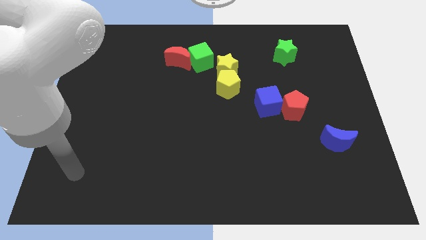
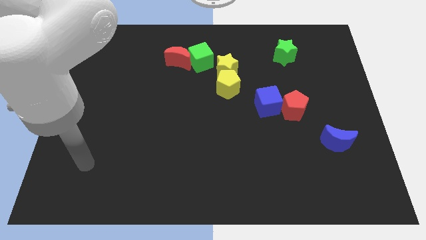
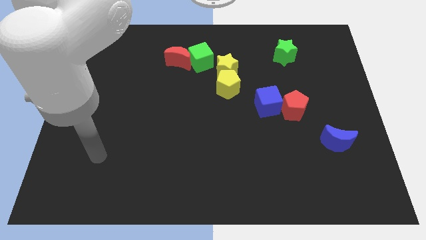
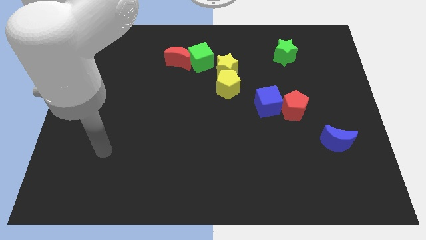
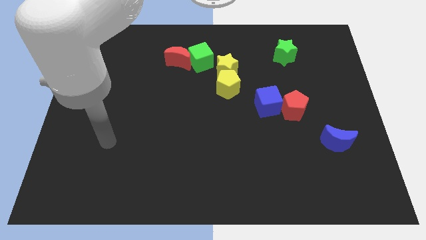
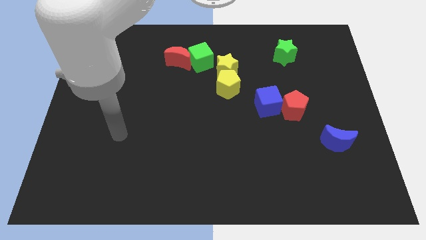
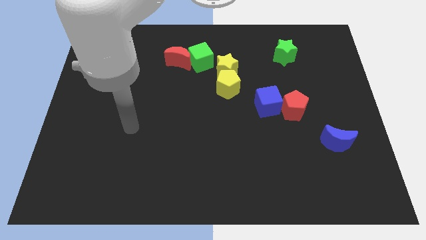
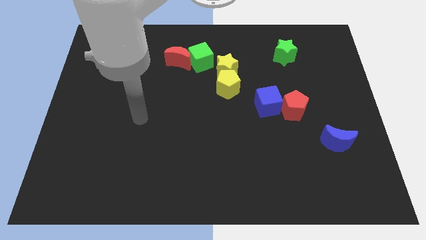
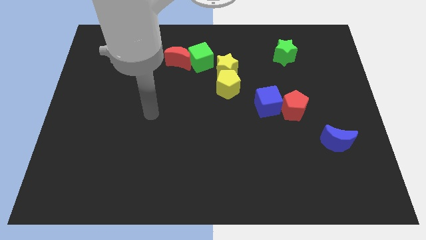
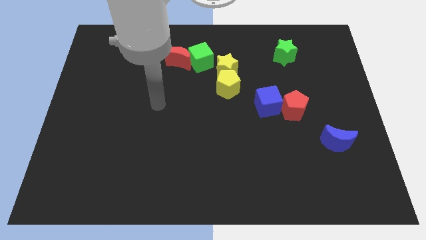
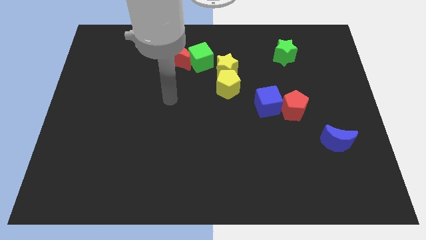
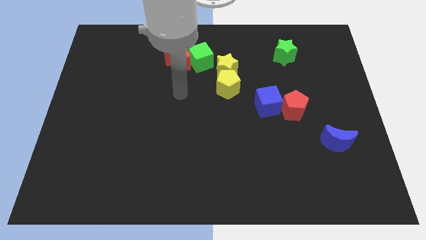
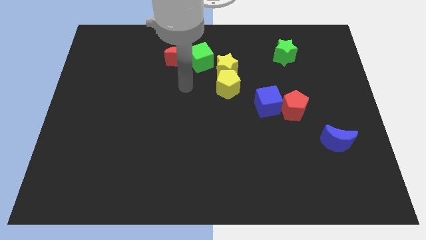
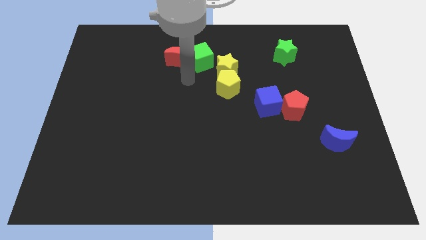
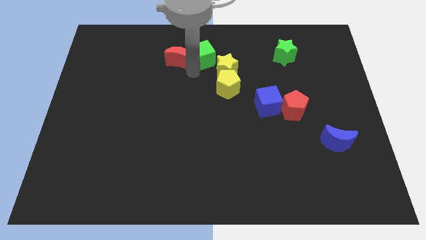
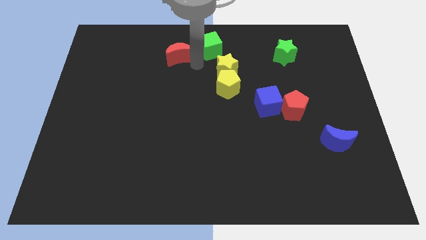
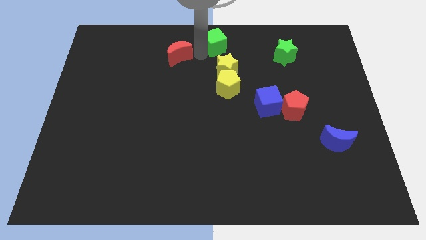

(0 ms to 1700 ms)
separate the red moon from the green cube

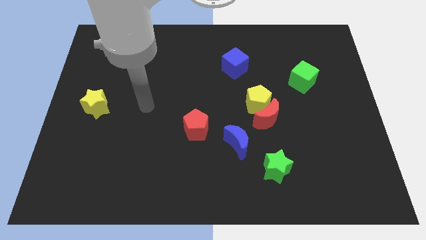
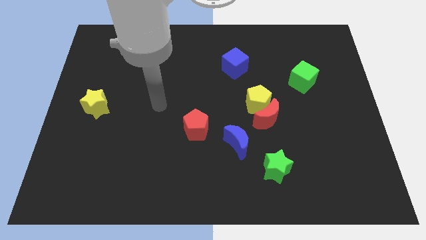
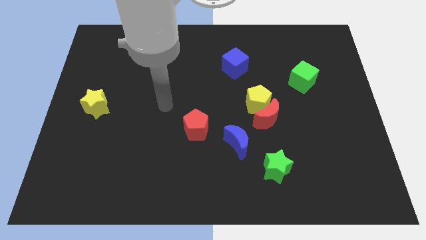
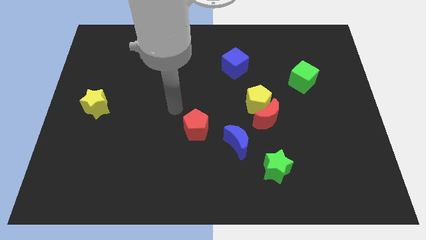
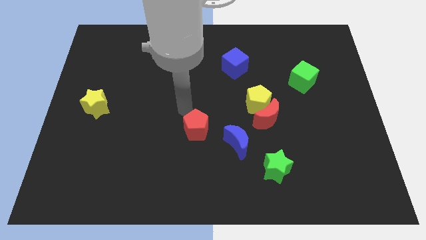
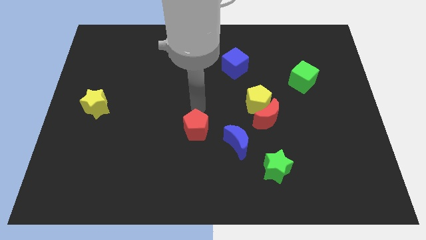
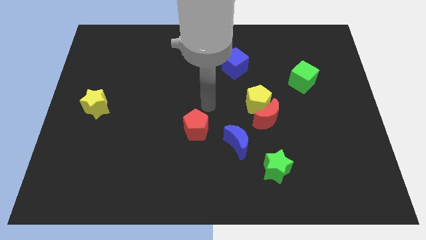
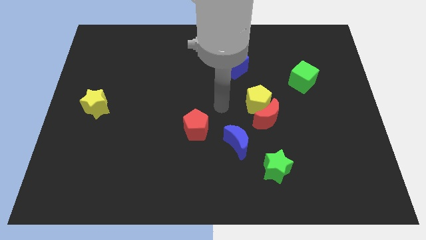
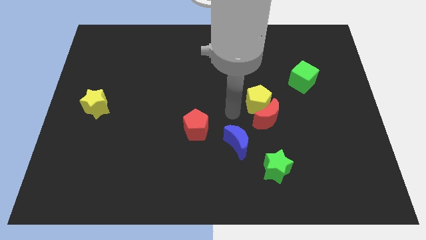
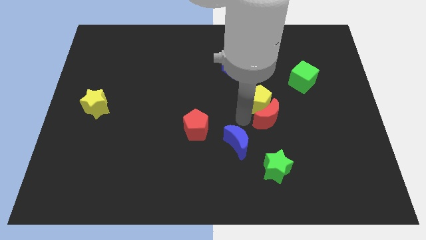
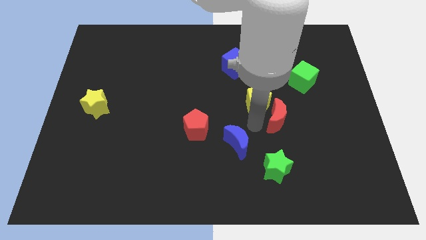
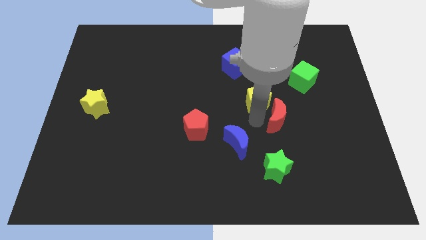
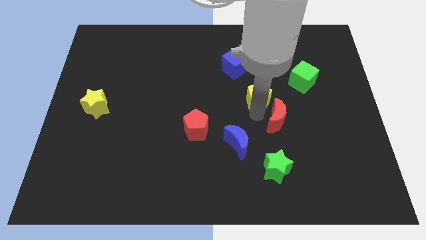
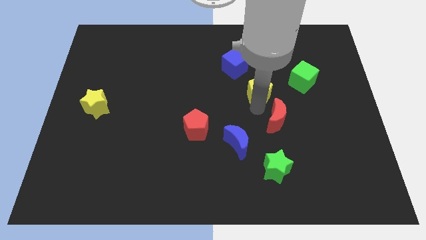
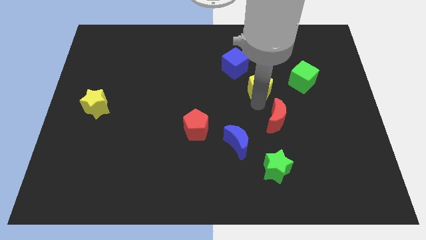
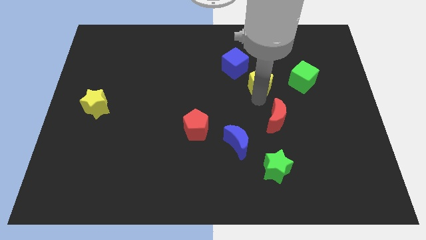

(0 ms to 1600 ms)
move the yellow pentagon away from the red moon

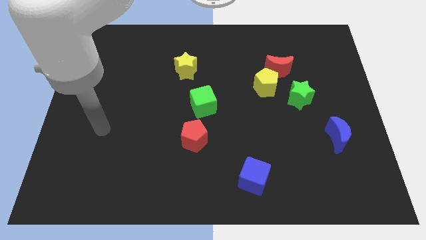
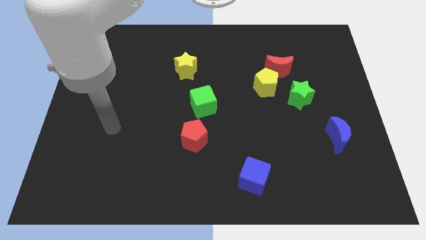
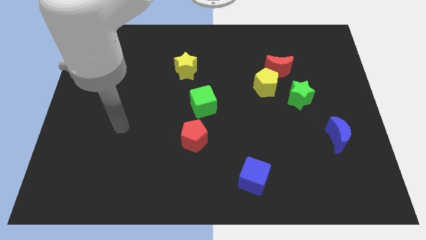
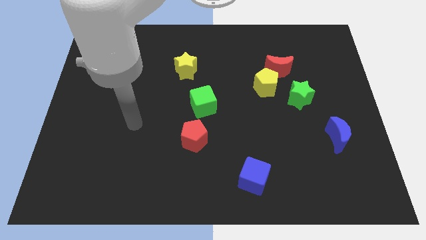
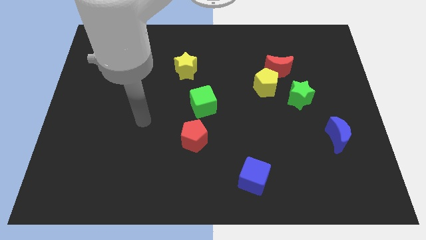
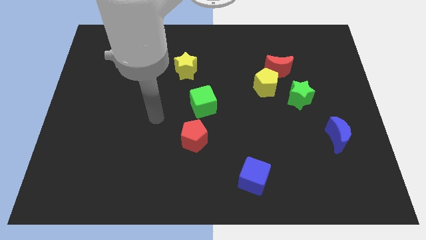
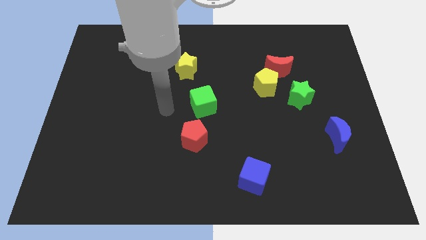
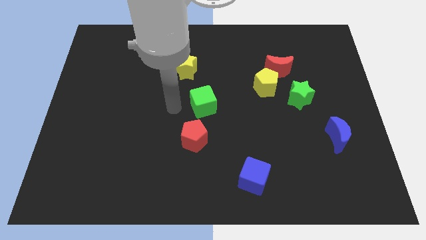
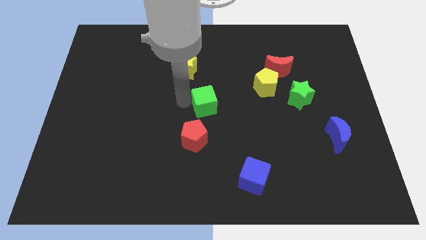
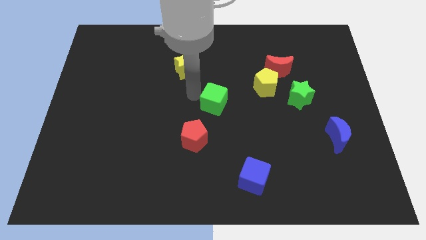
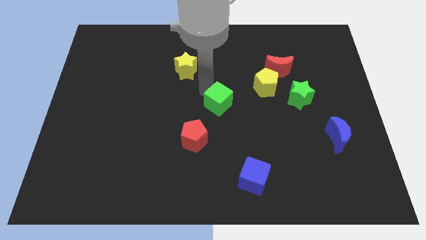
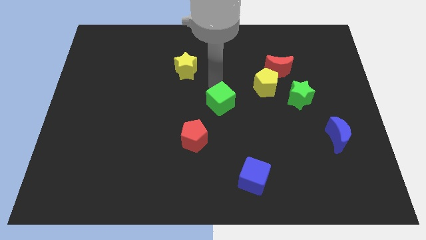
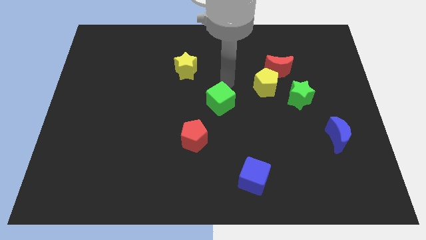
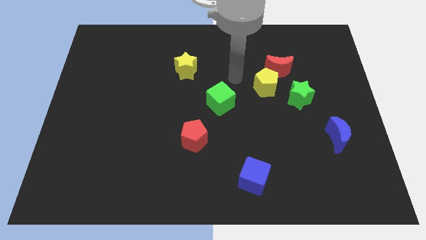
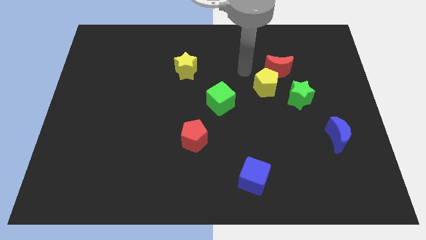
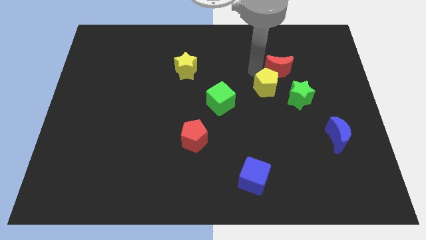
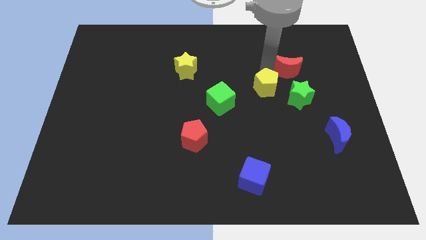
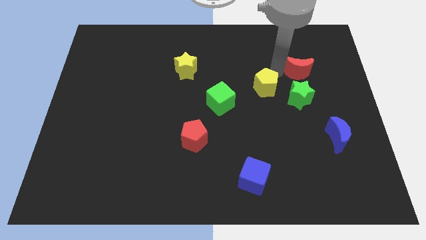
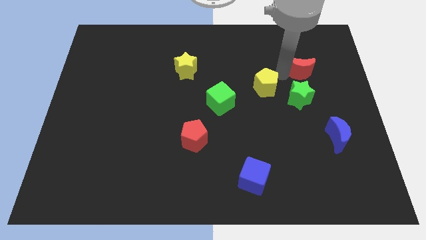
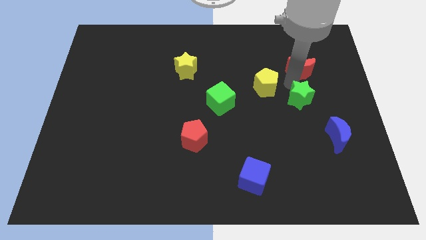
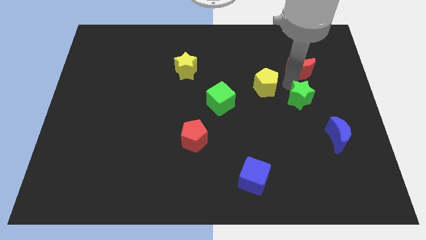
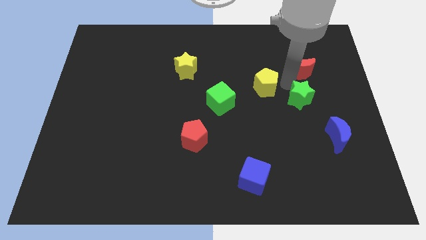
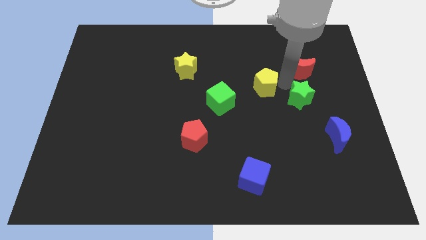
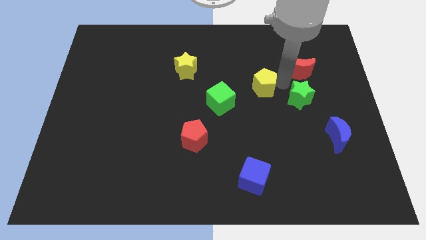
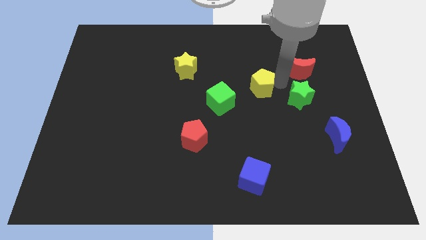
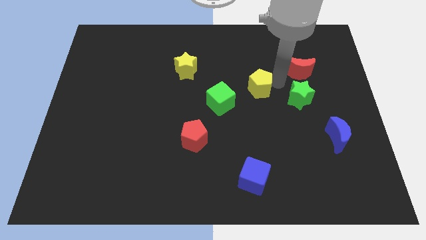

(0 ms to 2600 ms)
separate the yellow pentagon from the red moon and green star

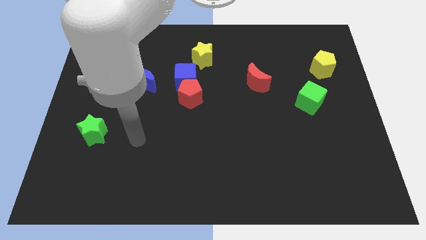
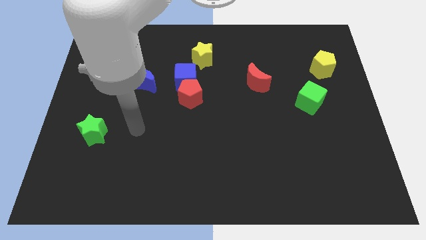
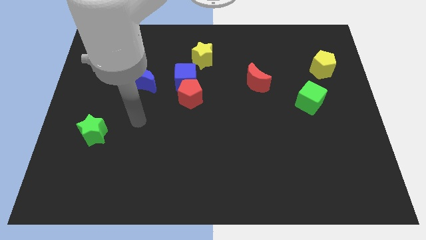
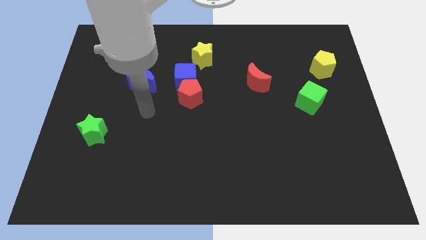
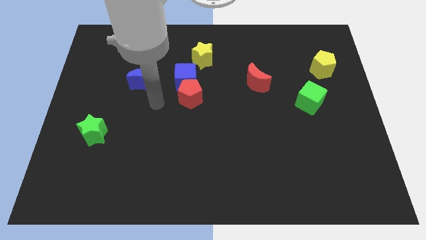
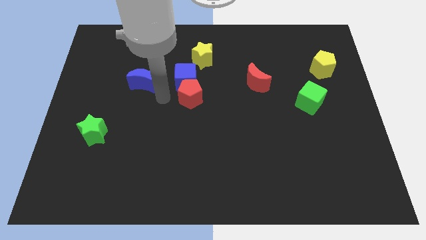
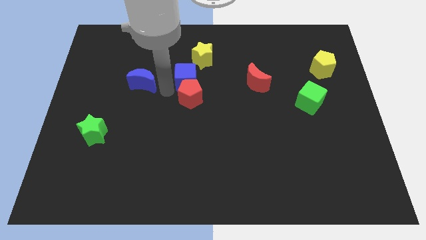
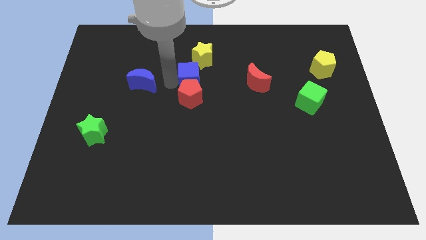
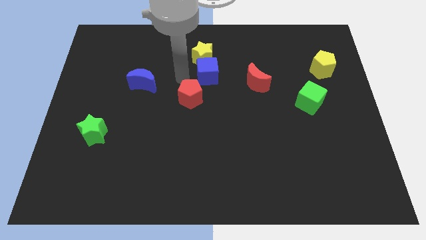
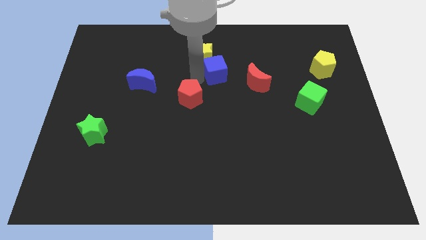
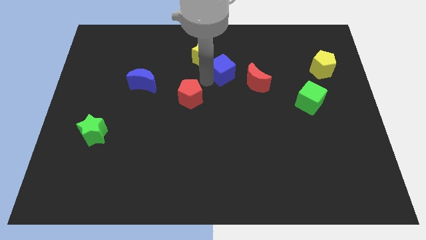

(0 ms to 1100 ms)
move the red pentagon away from the blue cube

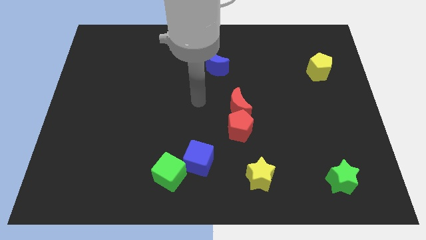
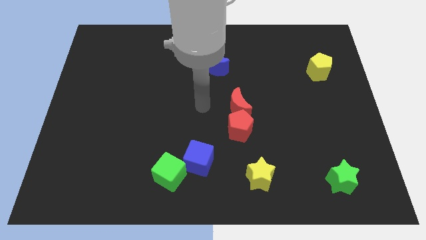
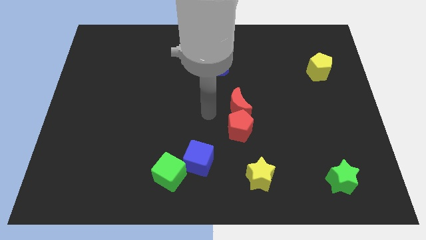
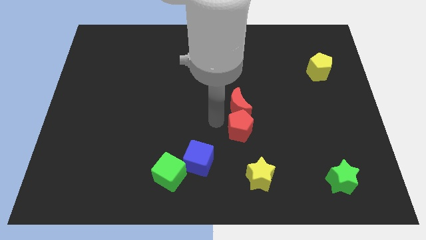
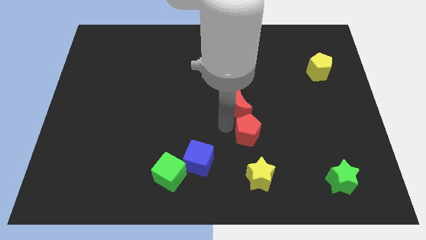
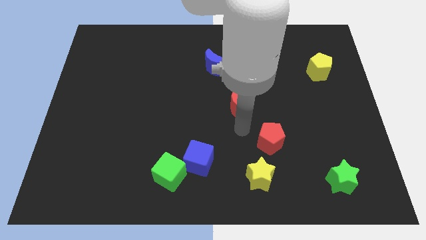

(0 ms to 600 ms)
separate the red moon from the red pentagon

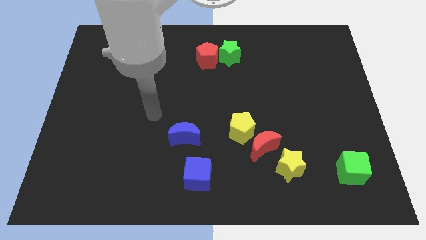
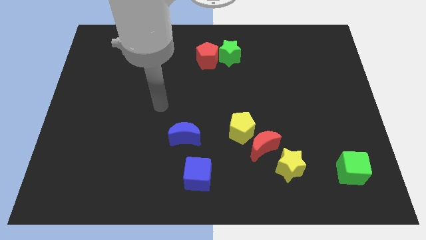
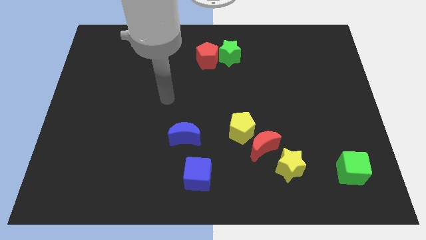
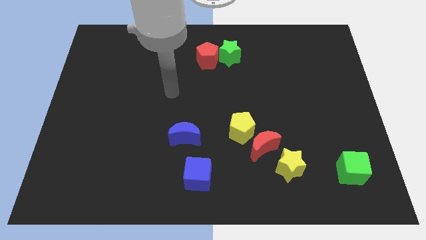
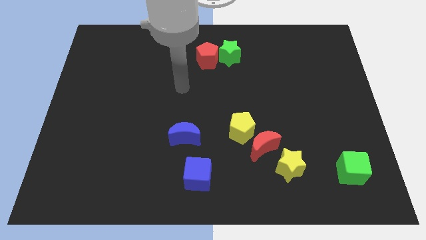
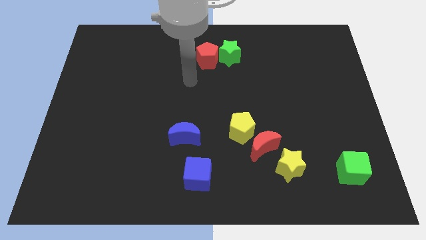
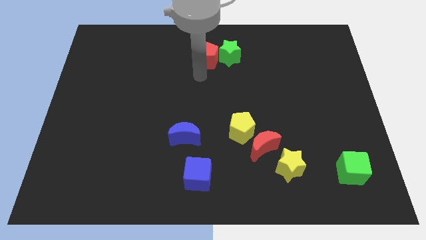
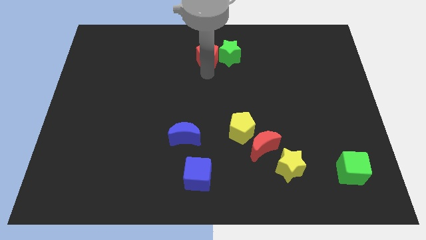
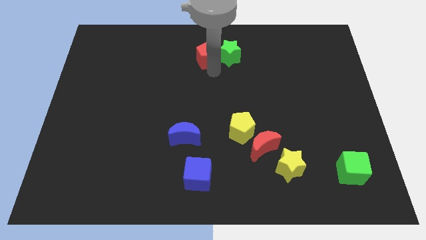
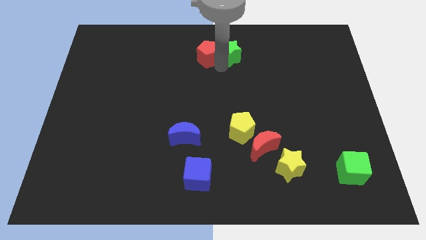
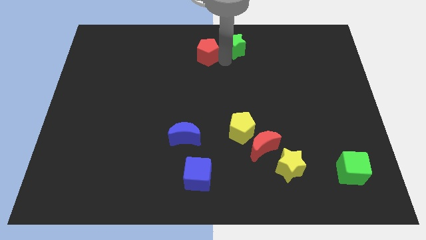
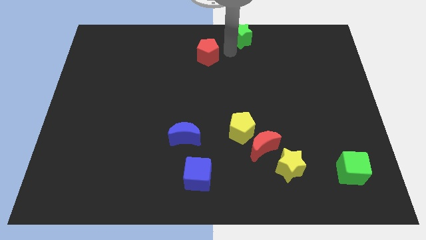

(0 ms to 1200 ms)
separate the red pentagon from the green star

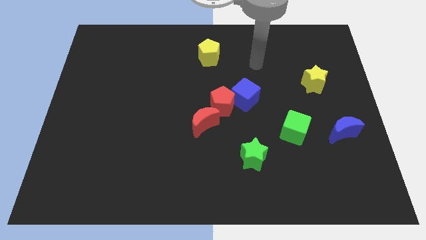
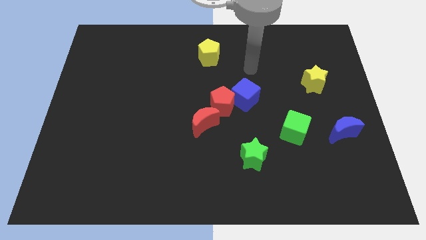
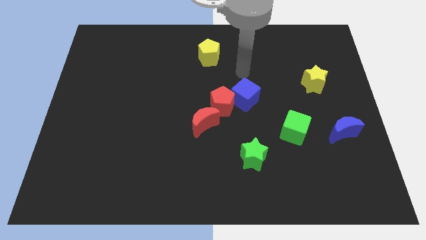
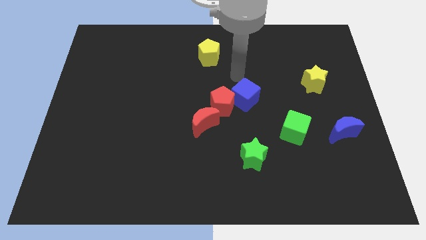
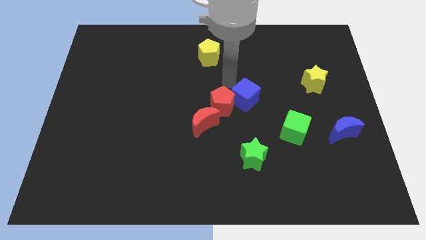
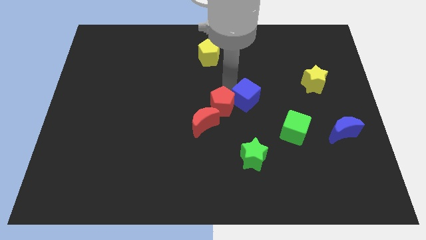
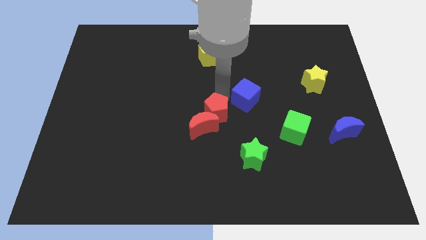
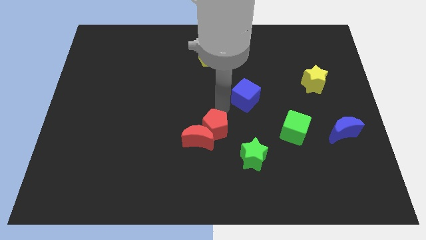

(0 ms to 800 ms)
move the blue cube away from the red pentagon
